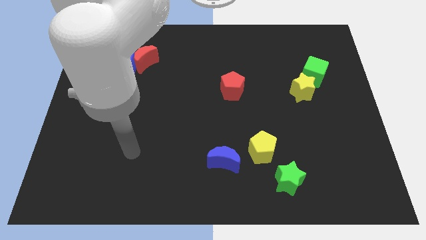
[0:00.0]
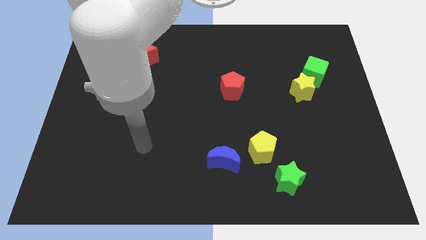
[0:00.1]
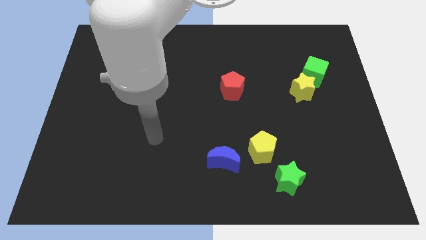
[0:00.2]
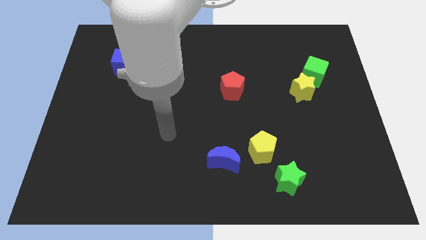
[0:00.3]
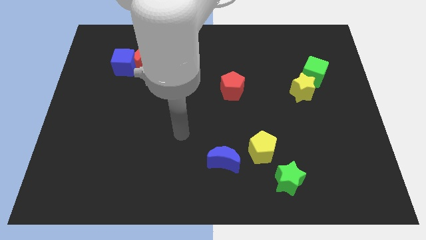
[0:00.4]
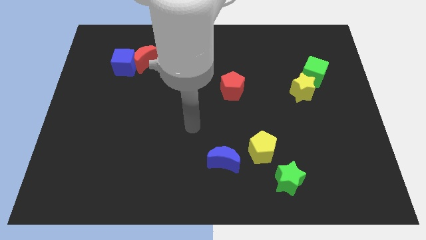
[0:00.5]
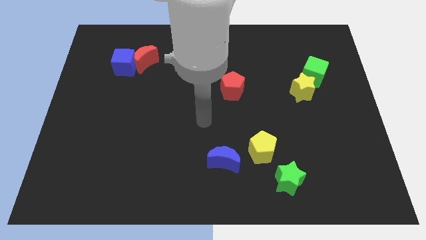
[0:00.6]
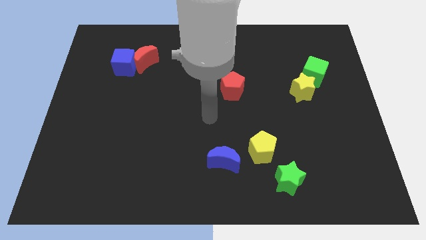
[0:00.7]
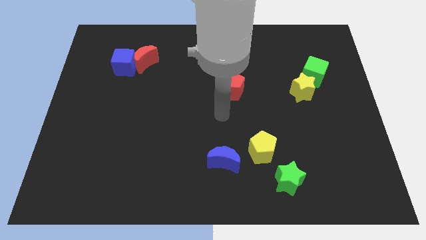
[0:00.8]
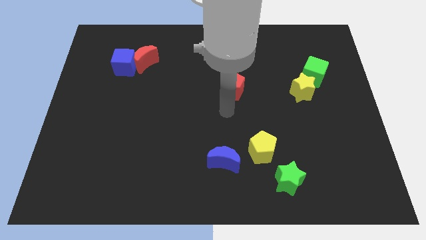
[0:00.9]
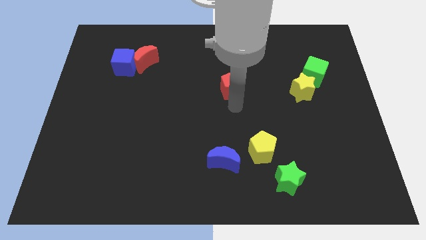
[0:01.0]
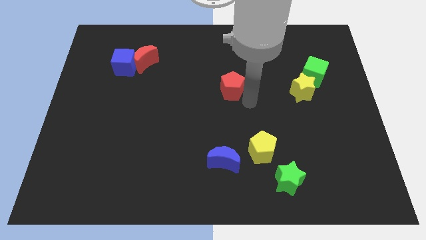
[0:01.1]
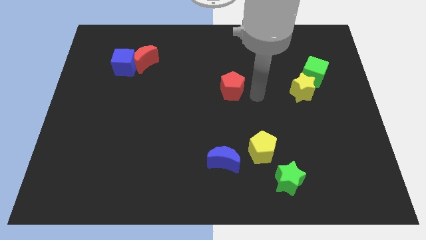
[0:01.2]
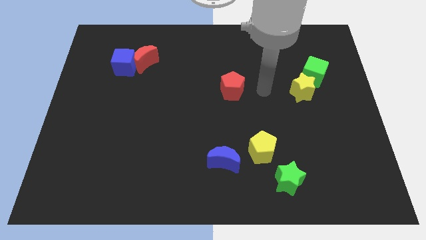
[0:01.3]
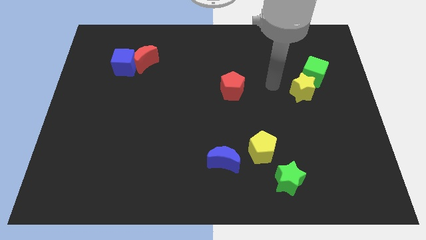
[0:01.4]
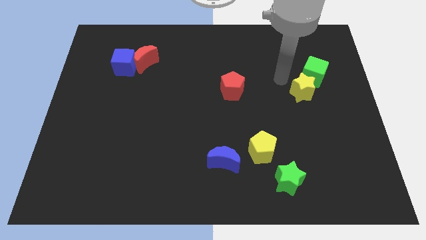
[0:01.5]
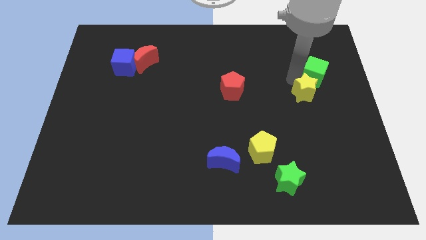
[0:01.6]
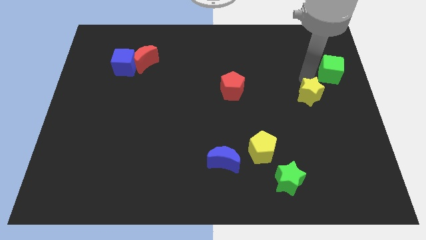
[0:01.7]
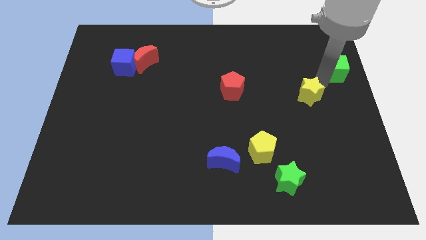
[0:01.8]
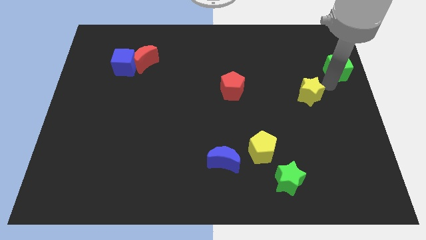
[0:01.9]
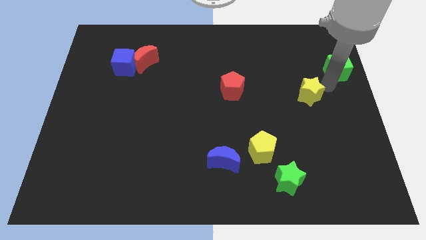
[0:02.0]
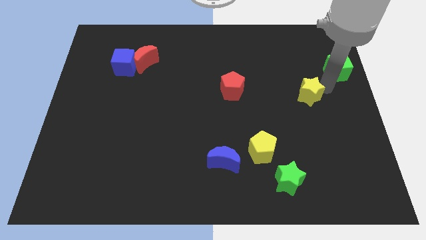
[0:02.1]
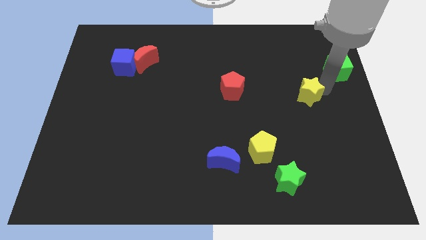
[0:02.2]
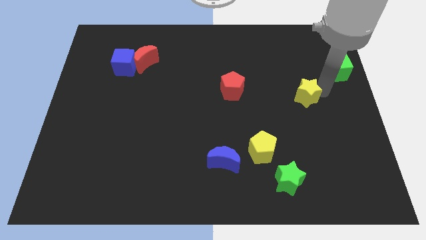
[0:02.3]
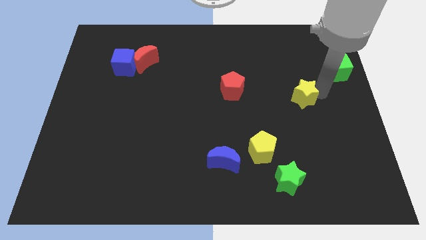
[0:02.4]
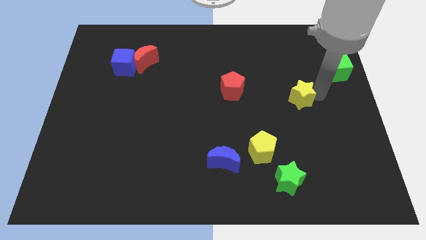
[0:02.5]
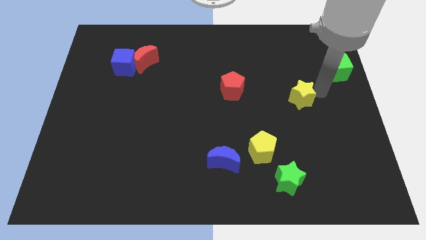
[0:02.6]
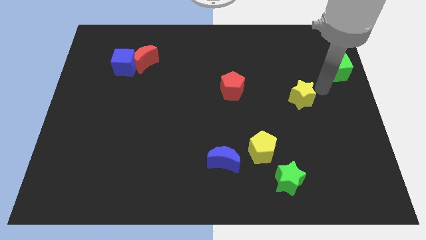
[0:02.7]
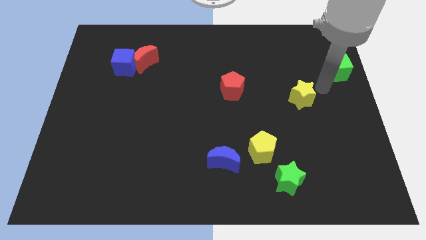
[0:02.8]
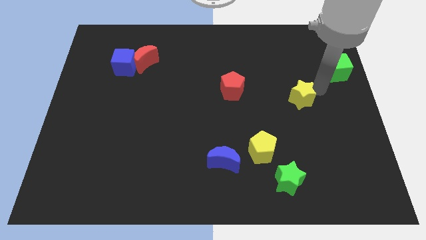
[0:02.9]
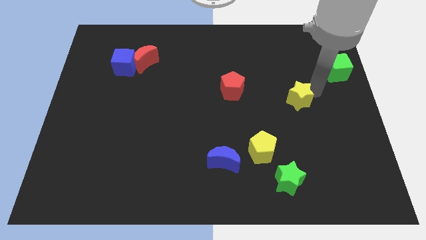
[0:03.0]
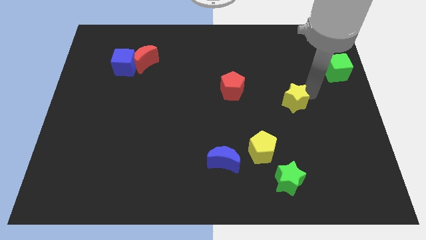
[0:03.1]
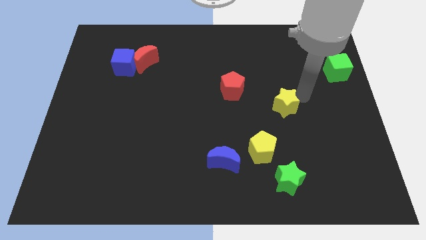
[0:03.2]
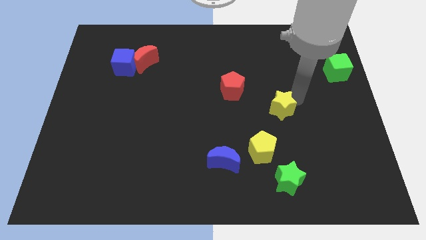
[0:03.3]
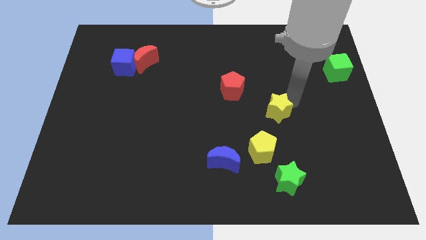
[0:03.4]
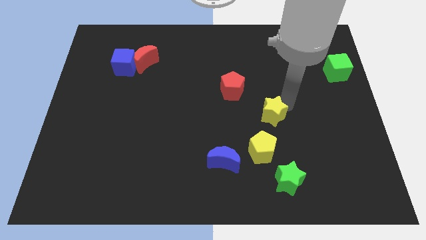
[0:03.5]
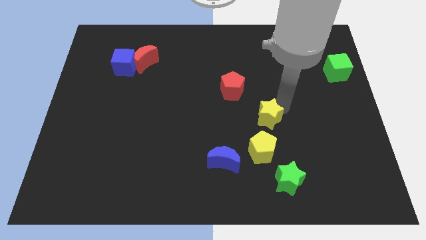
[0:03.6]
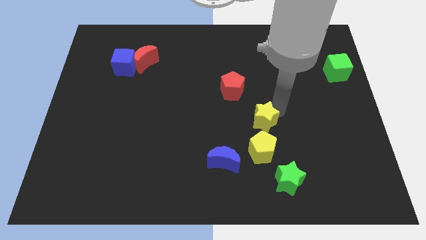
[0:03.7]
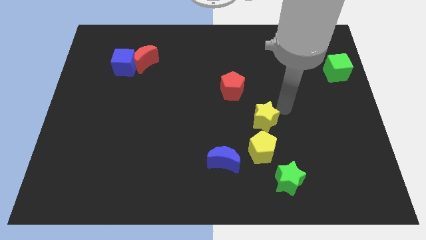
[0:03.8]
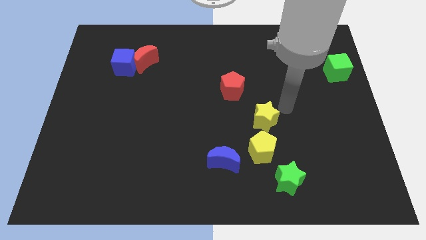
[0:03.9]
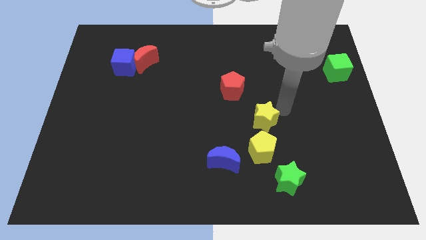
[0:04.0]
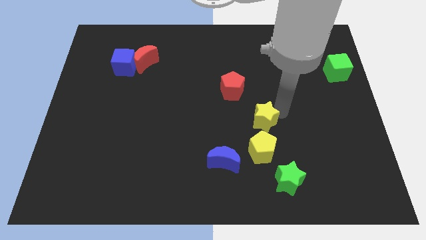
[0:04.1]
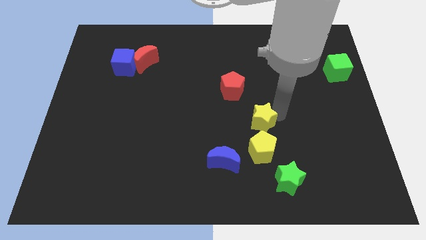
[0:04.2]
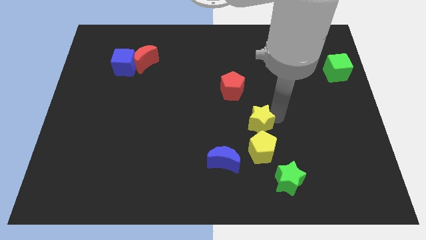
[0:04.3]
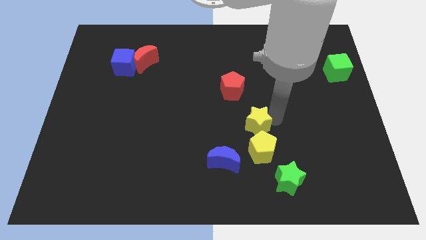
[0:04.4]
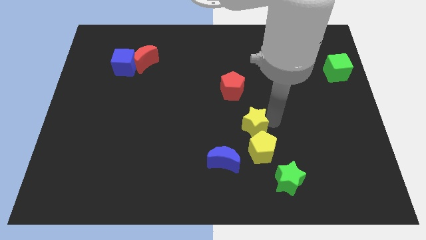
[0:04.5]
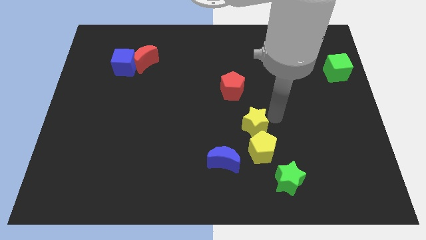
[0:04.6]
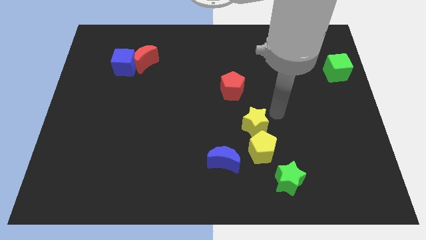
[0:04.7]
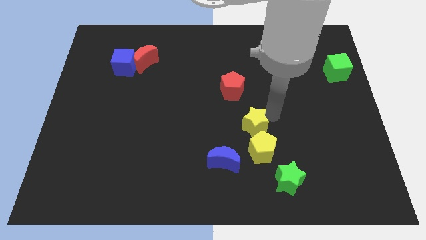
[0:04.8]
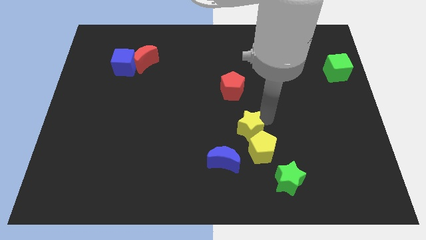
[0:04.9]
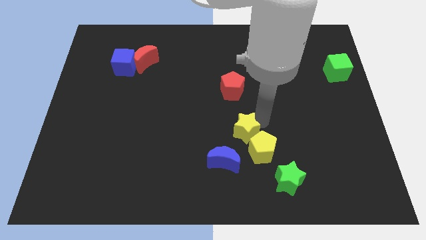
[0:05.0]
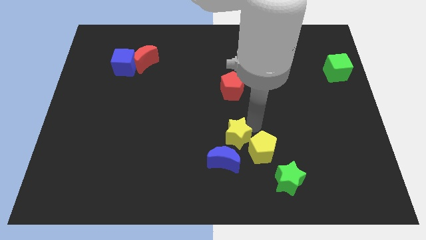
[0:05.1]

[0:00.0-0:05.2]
move the yellow star down and left diagonally

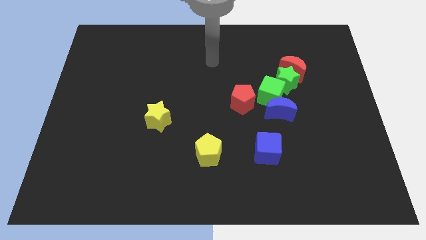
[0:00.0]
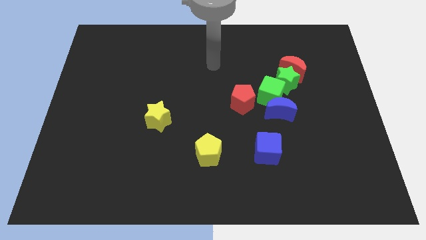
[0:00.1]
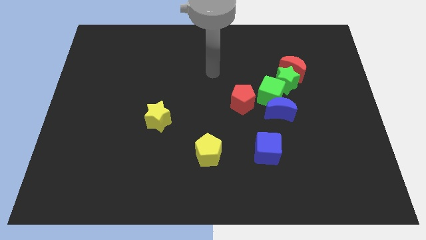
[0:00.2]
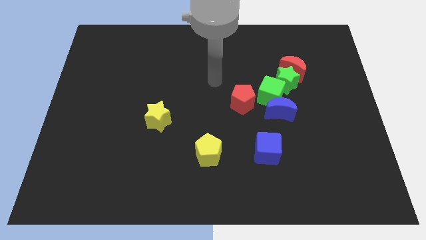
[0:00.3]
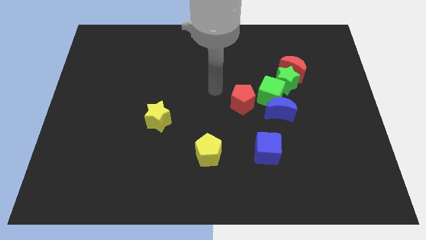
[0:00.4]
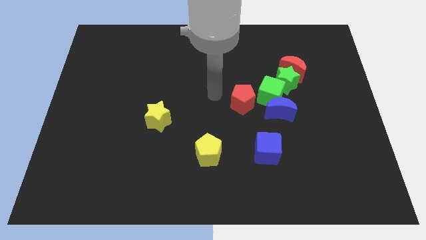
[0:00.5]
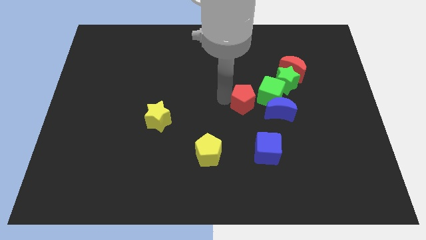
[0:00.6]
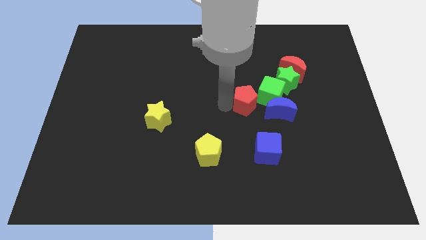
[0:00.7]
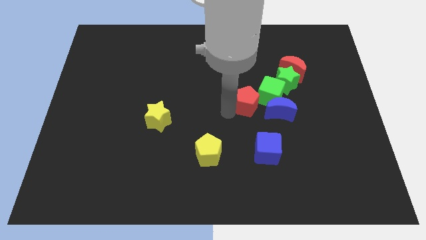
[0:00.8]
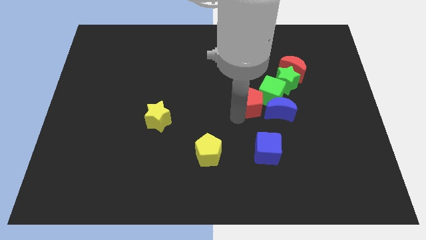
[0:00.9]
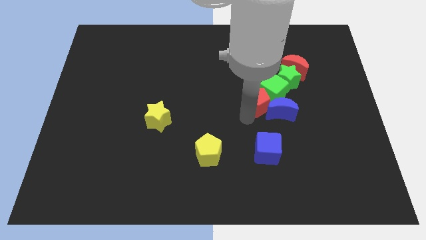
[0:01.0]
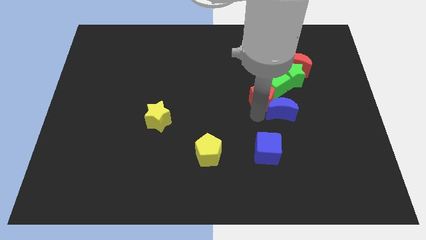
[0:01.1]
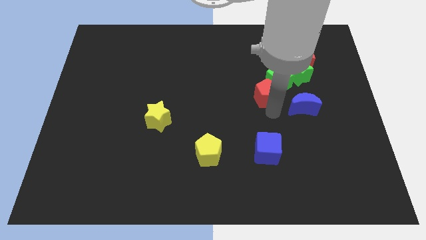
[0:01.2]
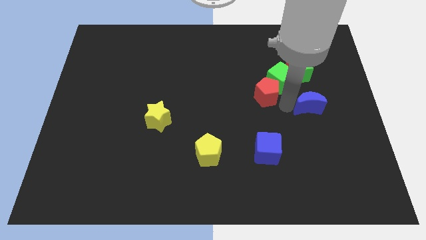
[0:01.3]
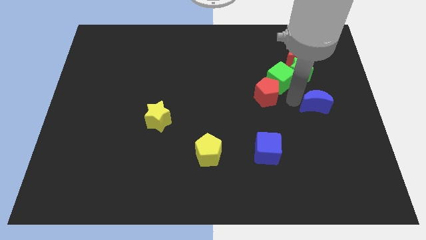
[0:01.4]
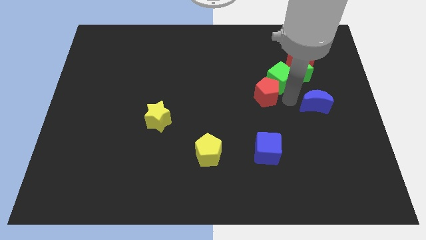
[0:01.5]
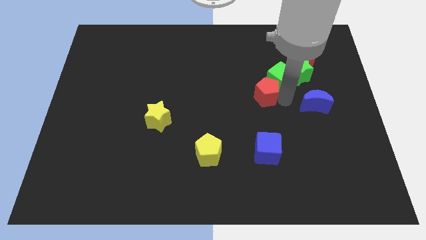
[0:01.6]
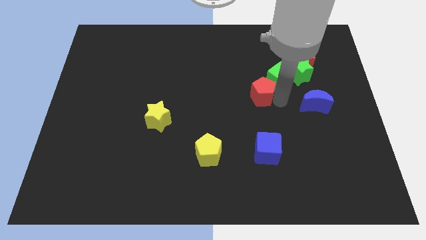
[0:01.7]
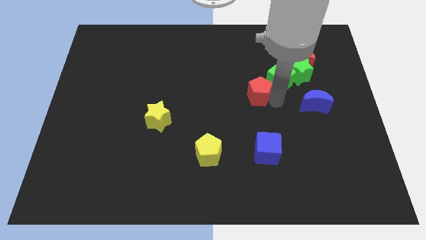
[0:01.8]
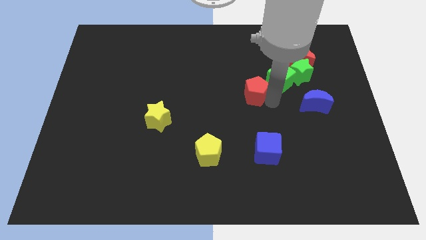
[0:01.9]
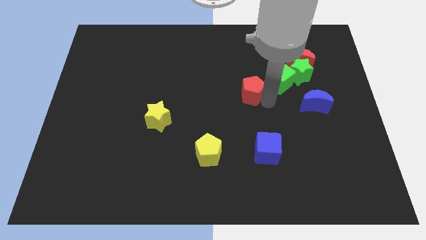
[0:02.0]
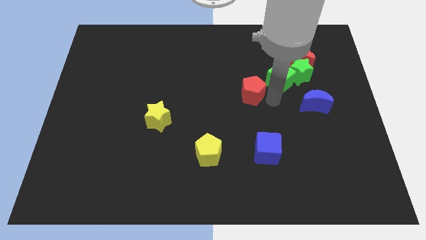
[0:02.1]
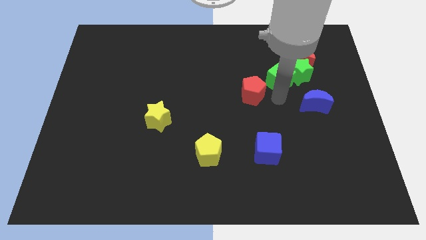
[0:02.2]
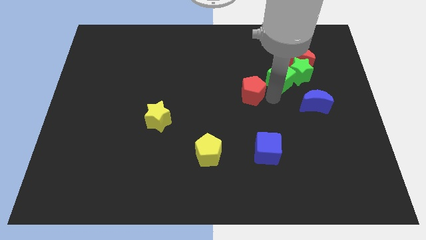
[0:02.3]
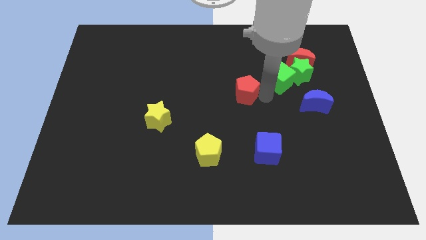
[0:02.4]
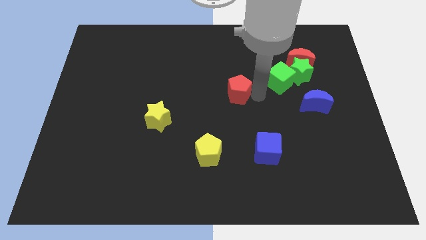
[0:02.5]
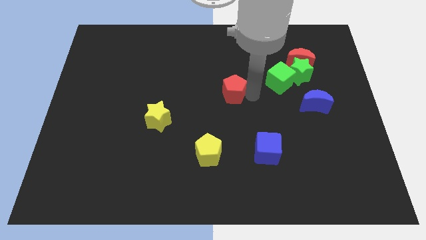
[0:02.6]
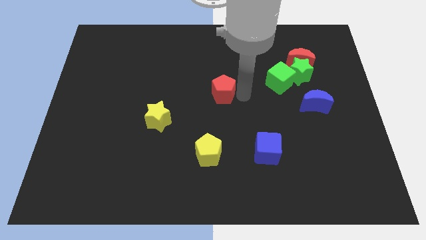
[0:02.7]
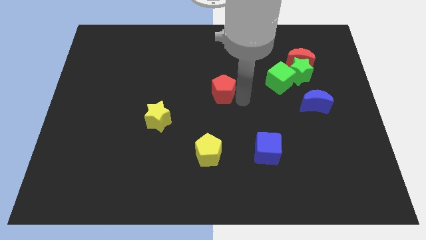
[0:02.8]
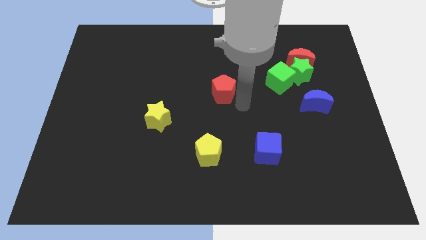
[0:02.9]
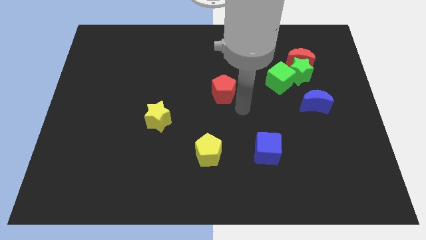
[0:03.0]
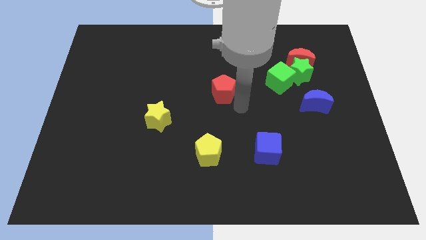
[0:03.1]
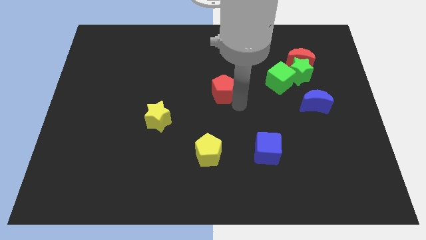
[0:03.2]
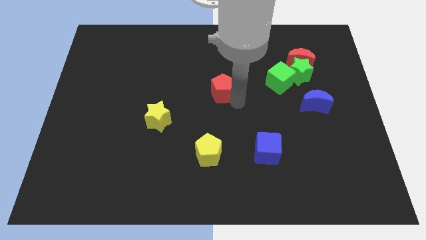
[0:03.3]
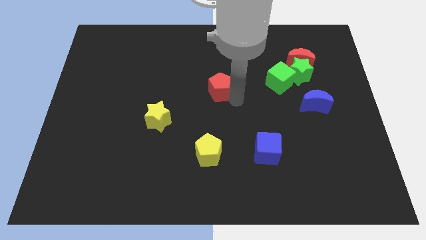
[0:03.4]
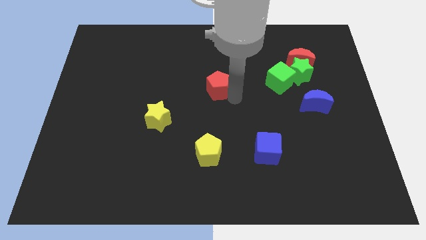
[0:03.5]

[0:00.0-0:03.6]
slightly push the red pentagon up and then to the left
